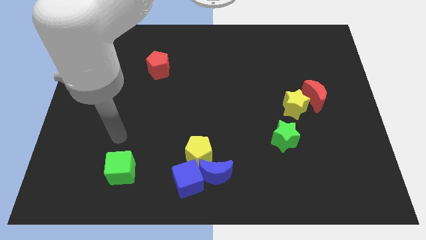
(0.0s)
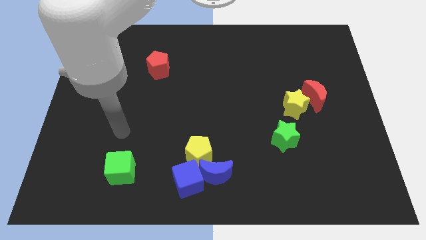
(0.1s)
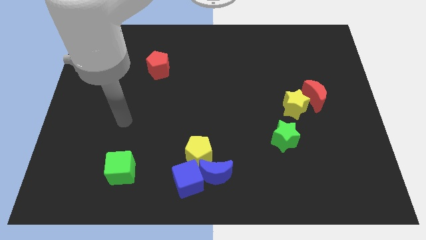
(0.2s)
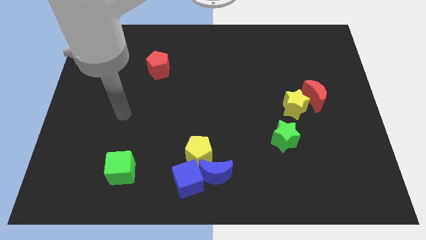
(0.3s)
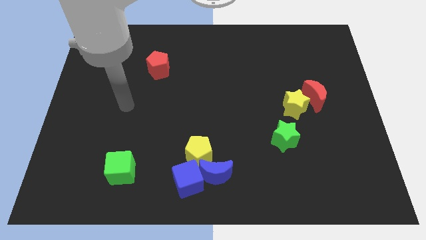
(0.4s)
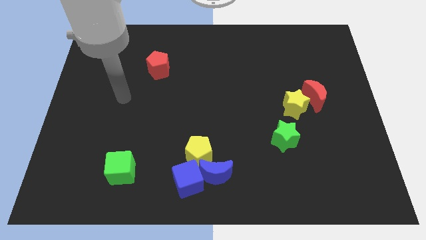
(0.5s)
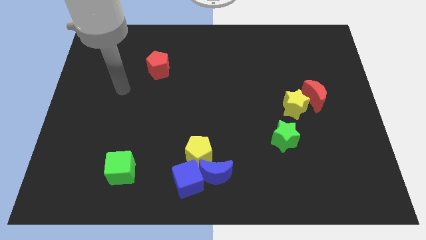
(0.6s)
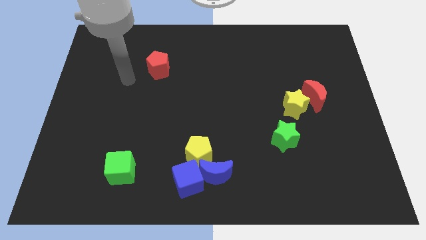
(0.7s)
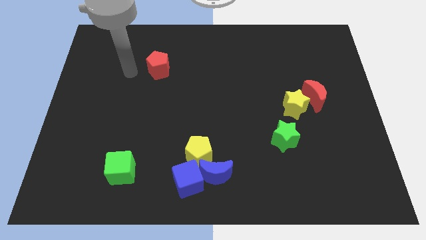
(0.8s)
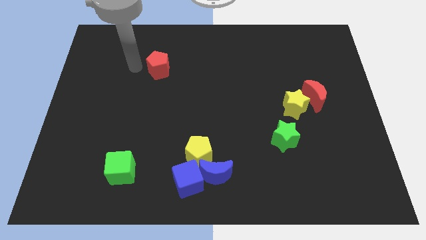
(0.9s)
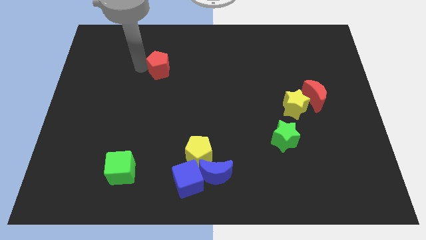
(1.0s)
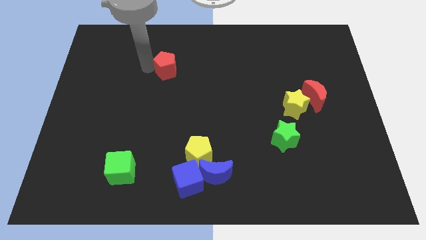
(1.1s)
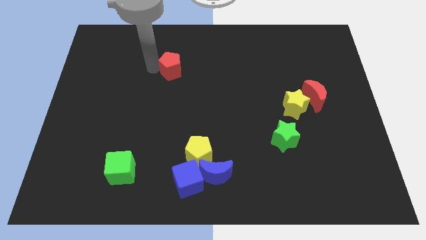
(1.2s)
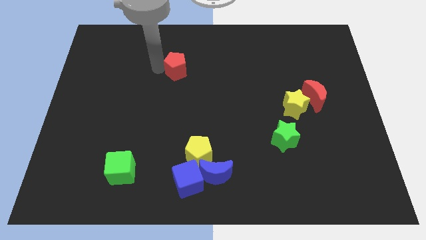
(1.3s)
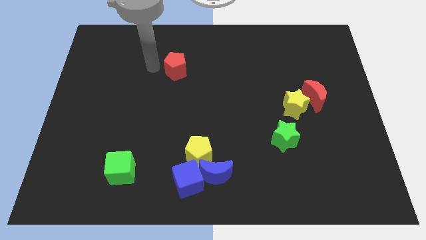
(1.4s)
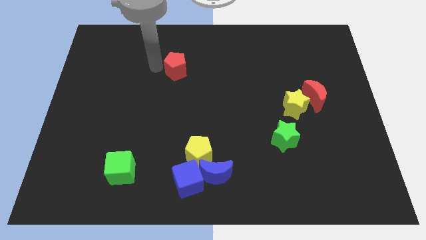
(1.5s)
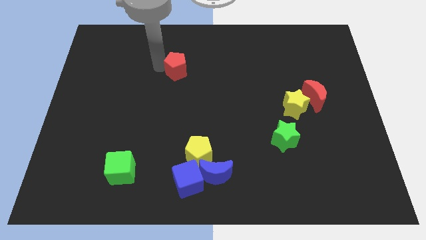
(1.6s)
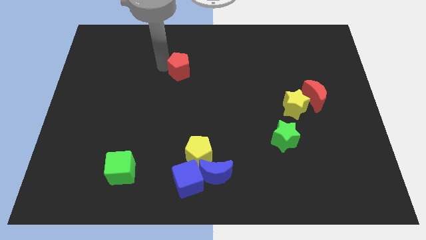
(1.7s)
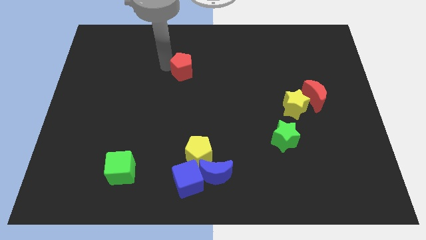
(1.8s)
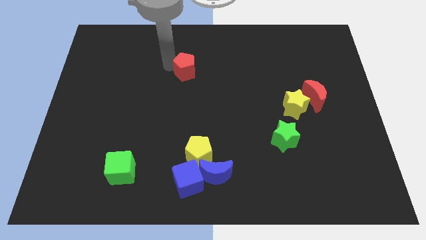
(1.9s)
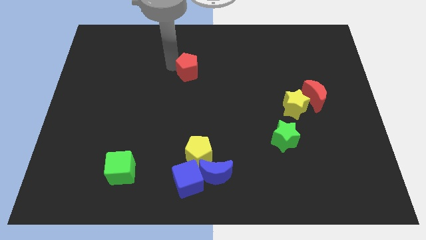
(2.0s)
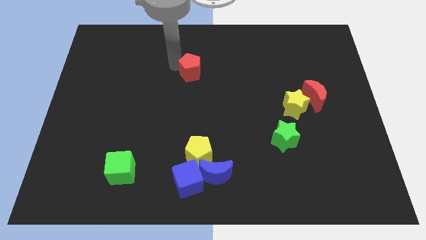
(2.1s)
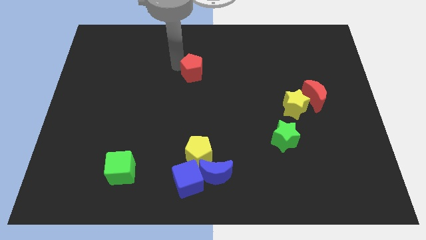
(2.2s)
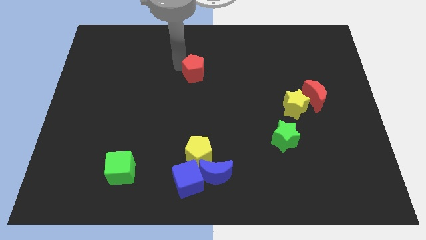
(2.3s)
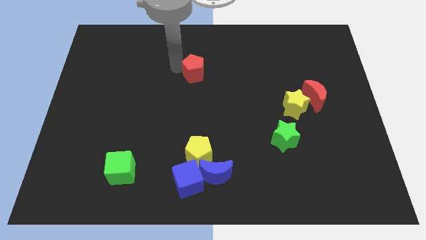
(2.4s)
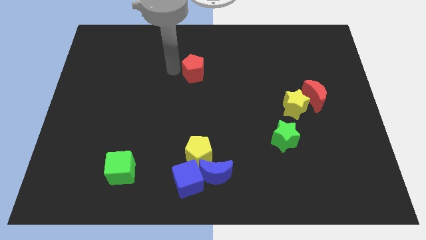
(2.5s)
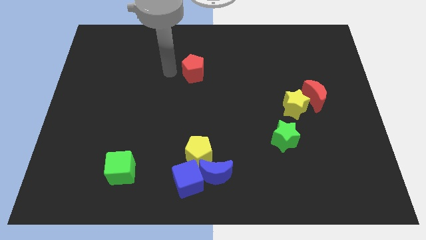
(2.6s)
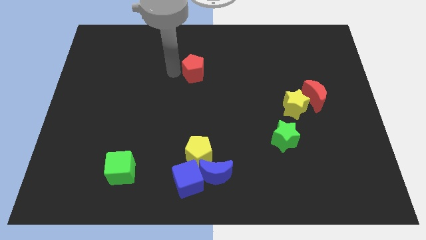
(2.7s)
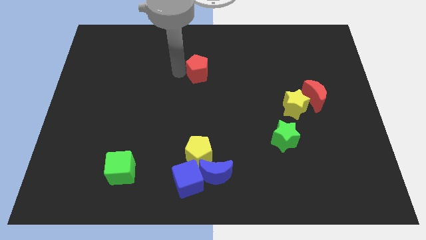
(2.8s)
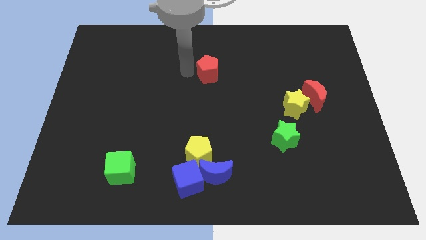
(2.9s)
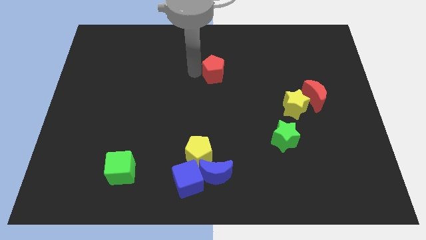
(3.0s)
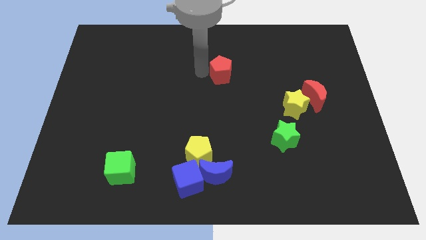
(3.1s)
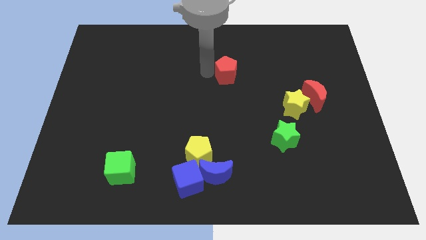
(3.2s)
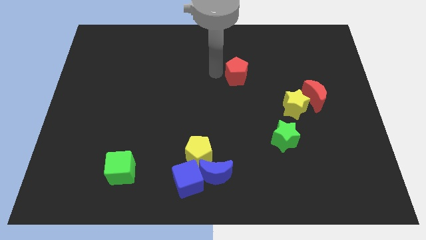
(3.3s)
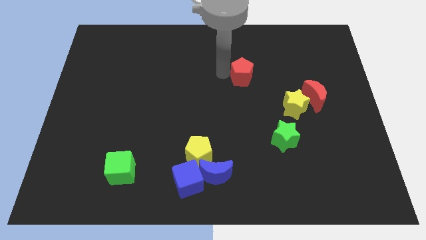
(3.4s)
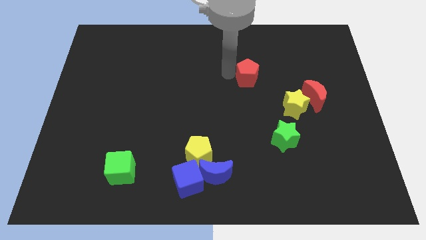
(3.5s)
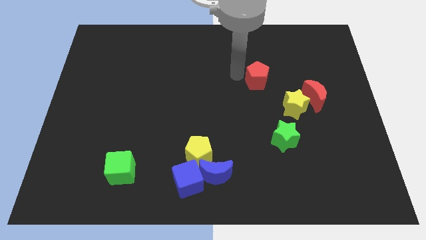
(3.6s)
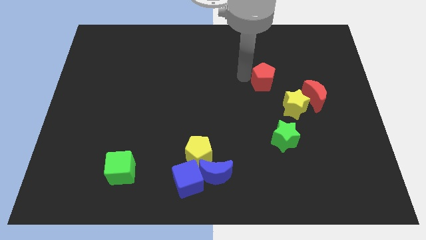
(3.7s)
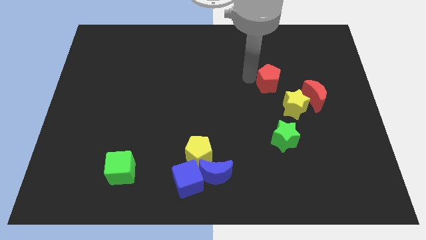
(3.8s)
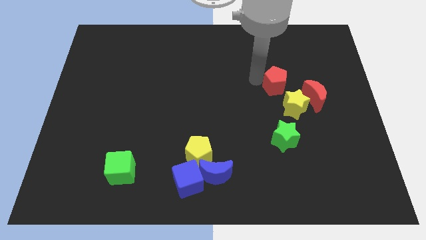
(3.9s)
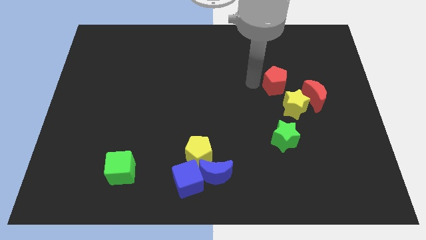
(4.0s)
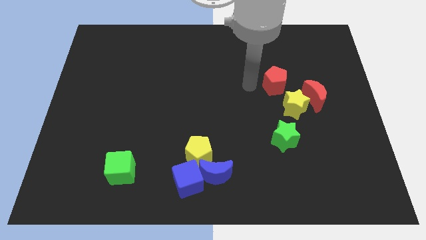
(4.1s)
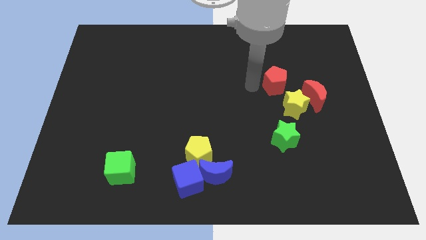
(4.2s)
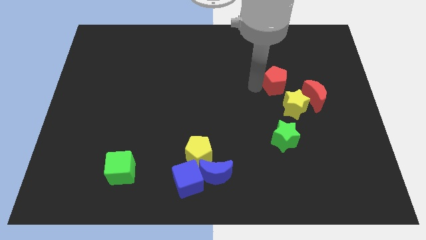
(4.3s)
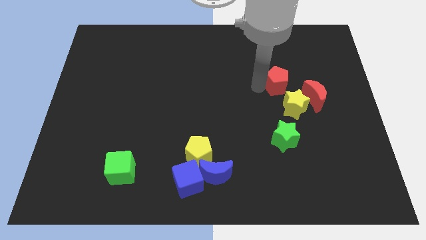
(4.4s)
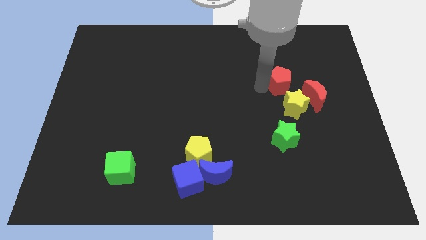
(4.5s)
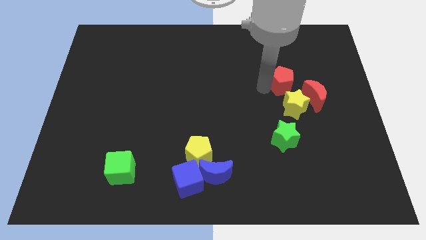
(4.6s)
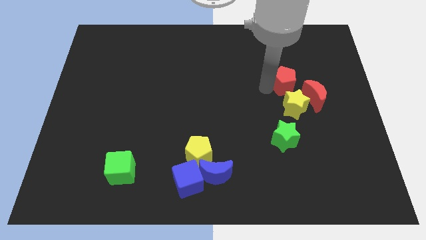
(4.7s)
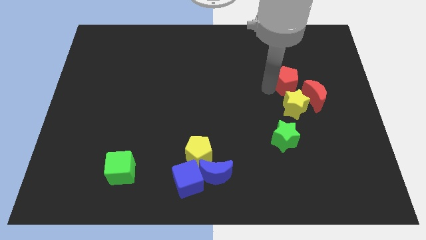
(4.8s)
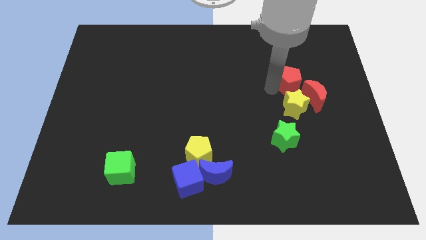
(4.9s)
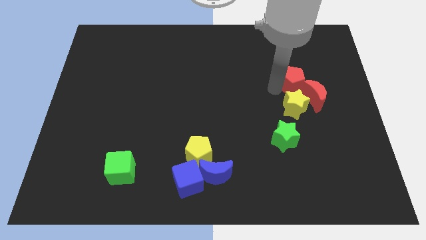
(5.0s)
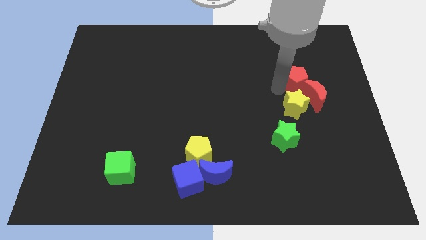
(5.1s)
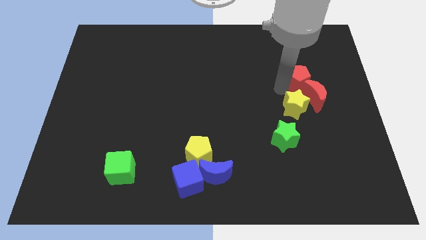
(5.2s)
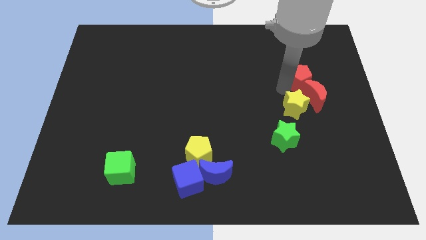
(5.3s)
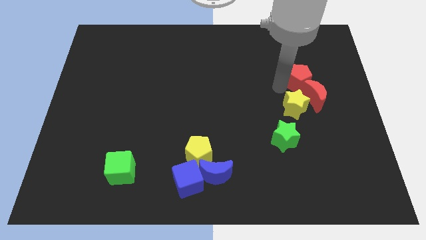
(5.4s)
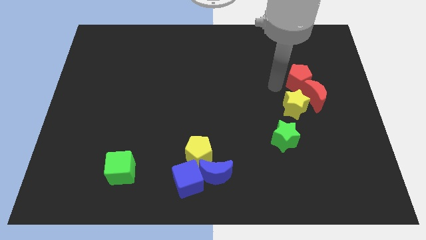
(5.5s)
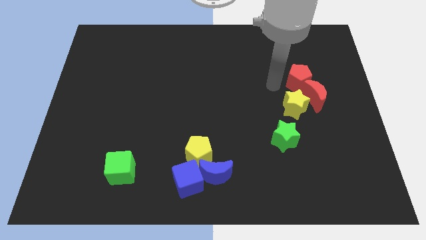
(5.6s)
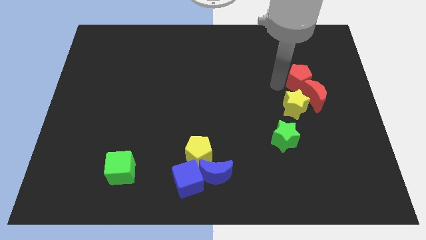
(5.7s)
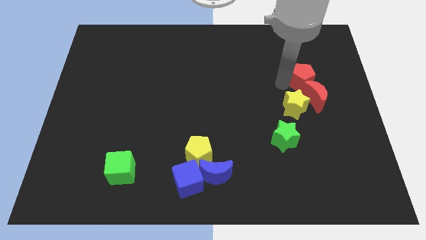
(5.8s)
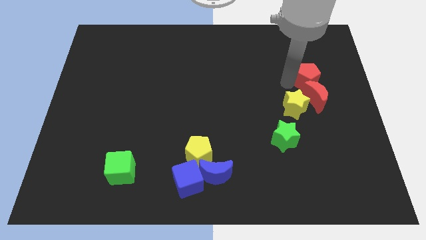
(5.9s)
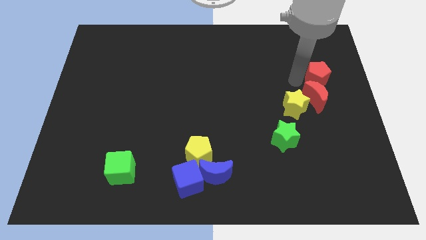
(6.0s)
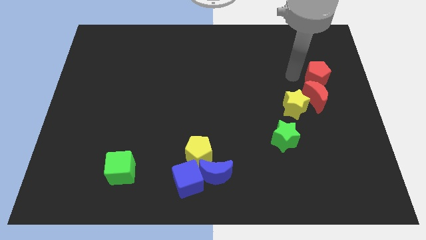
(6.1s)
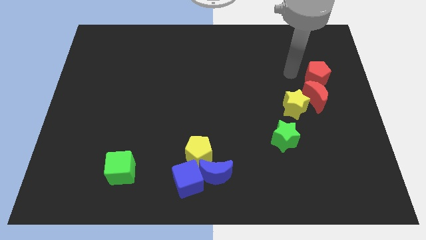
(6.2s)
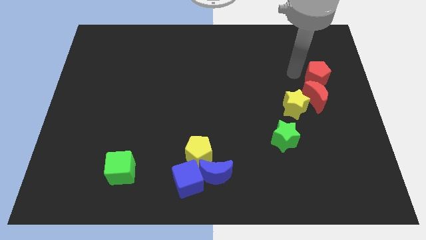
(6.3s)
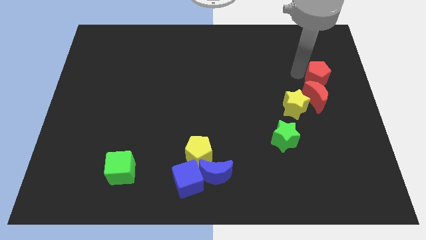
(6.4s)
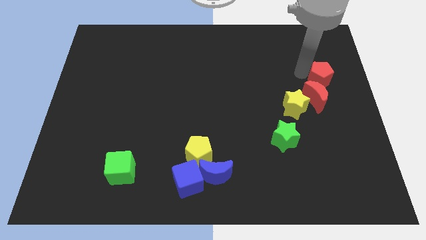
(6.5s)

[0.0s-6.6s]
move the red pentagon to the right side of the board

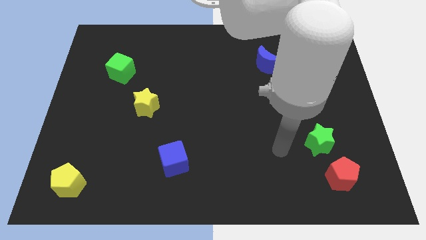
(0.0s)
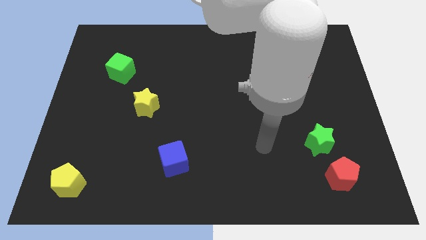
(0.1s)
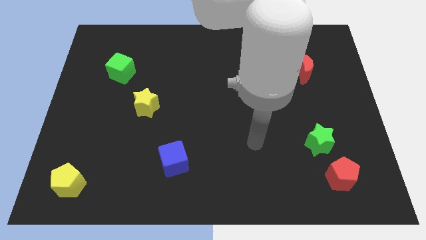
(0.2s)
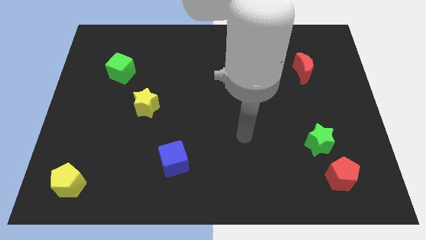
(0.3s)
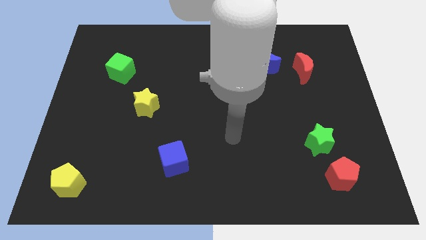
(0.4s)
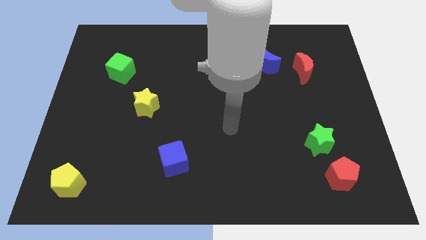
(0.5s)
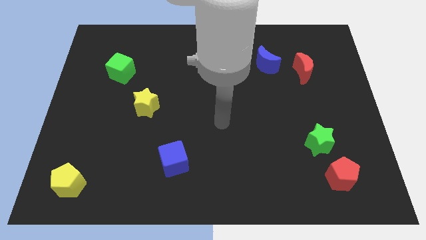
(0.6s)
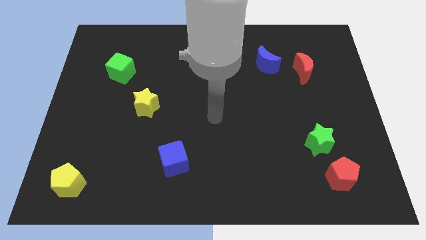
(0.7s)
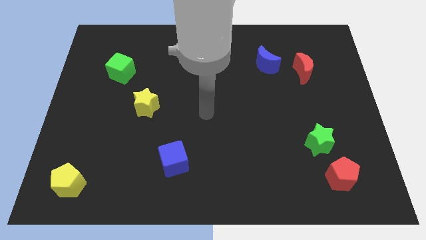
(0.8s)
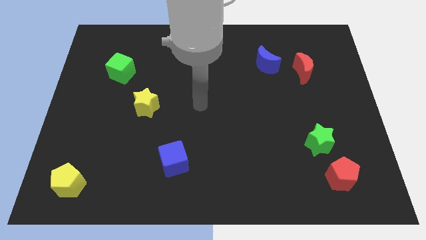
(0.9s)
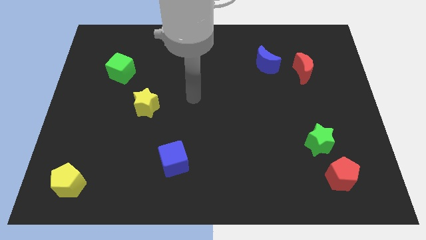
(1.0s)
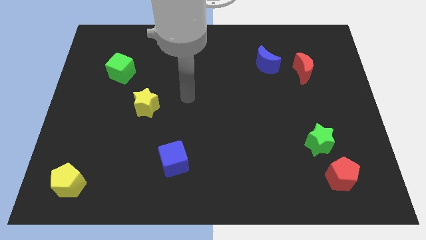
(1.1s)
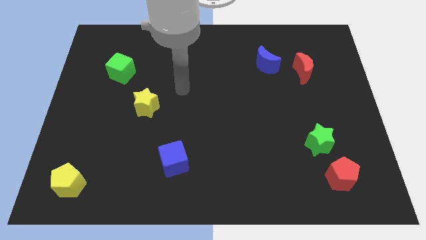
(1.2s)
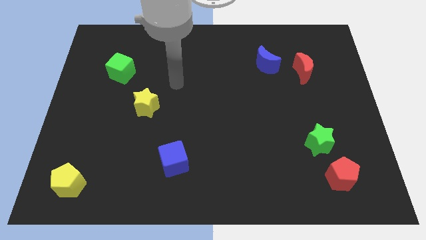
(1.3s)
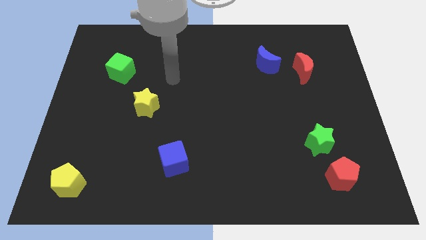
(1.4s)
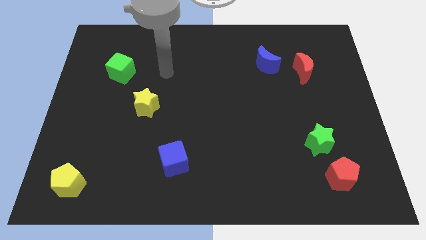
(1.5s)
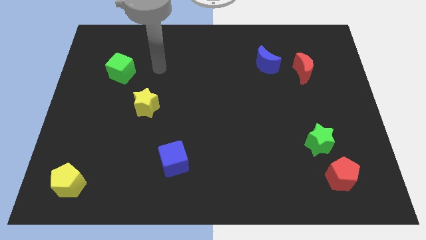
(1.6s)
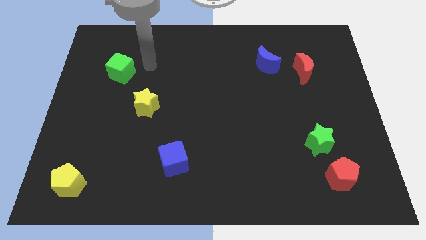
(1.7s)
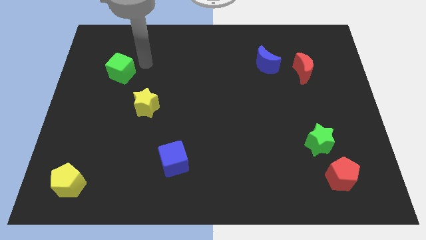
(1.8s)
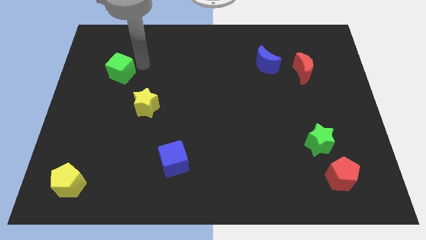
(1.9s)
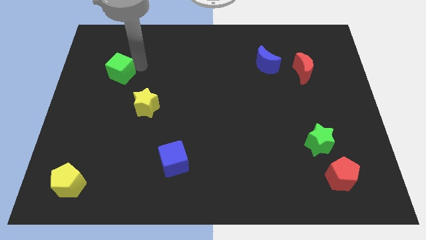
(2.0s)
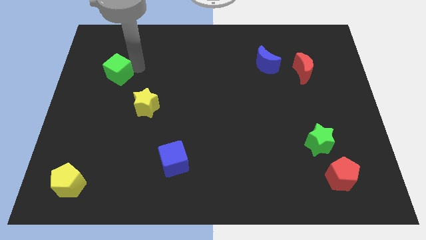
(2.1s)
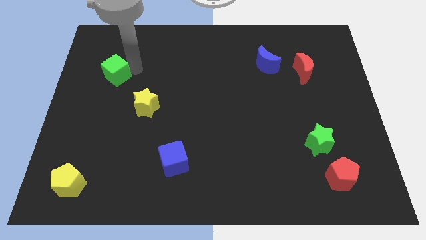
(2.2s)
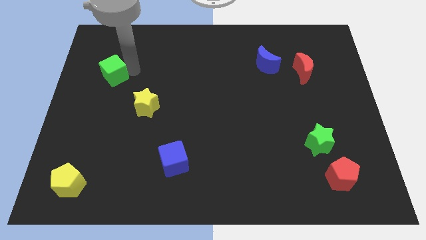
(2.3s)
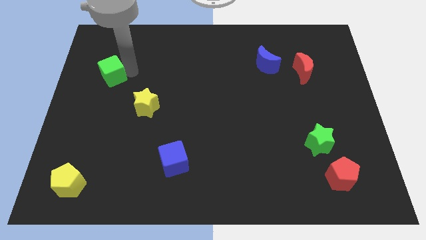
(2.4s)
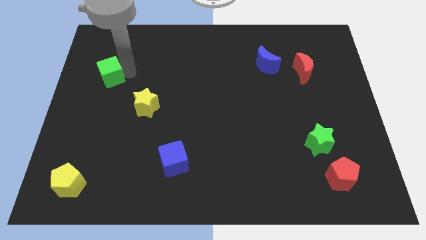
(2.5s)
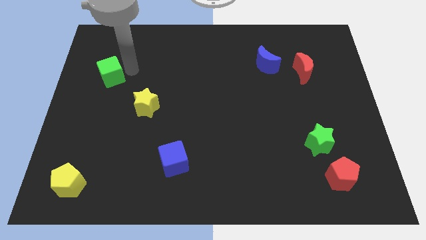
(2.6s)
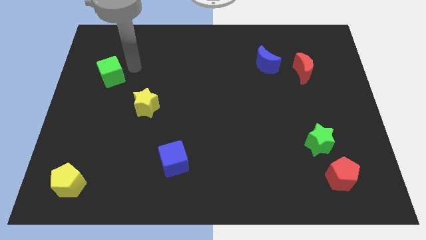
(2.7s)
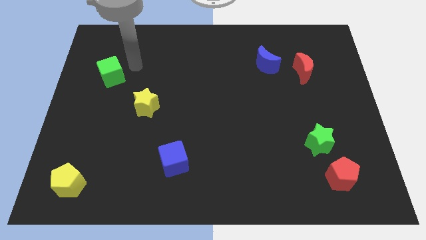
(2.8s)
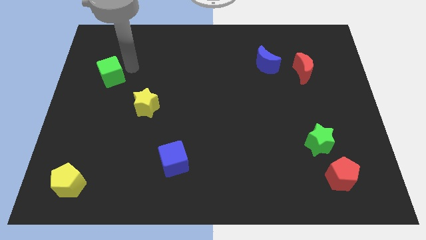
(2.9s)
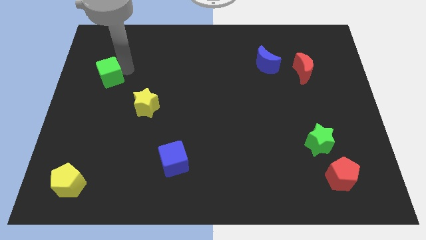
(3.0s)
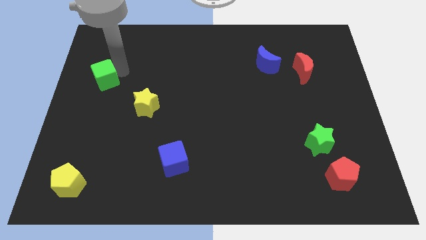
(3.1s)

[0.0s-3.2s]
push the green cube to the center left
